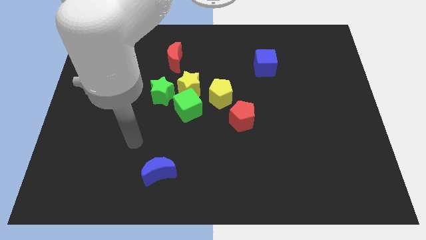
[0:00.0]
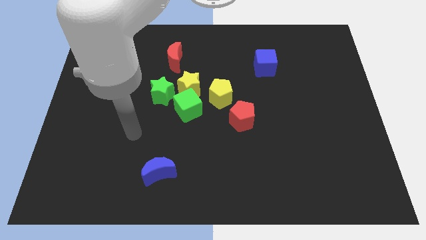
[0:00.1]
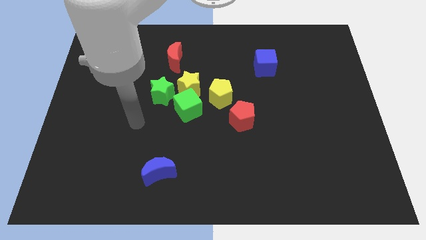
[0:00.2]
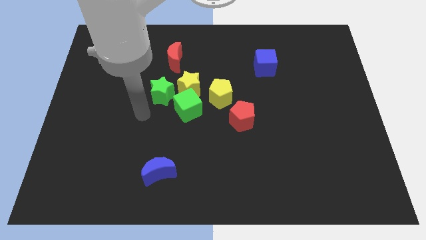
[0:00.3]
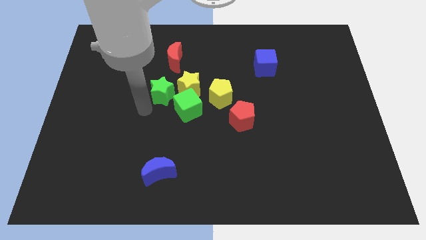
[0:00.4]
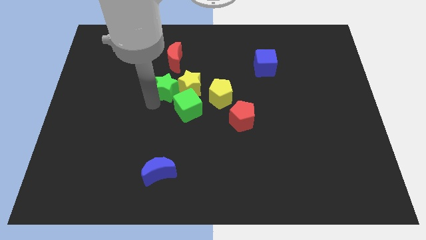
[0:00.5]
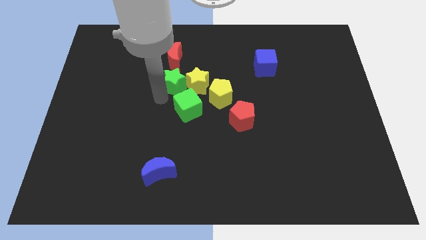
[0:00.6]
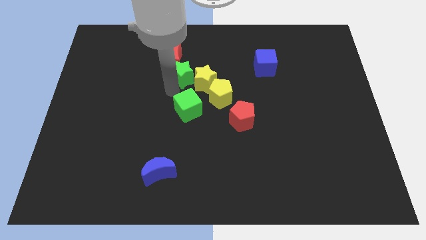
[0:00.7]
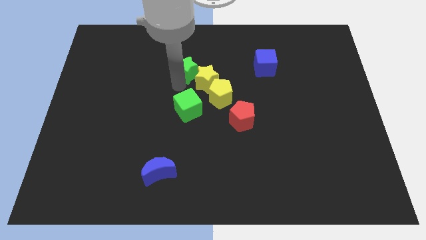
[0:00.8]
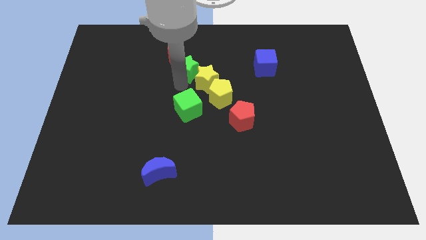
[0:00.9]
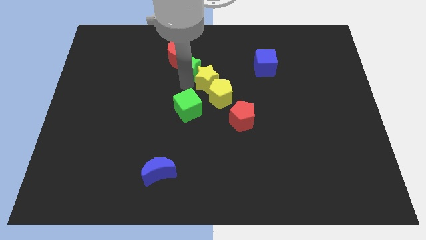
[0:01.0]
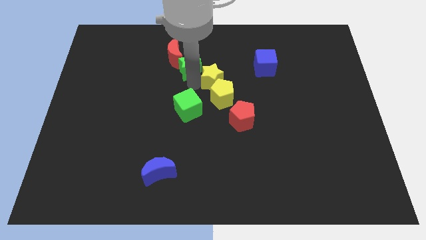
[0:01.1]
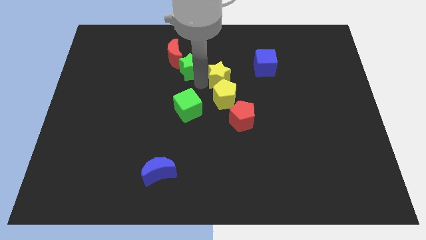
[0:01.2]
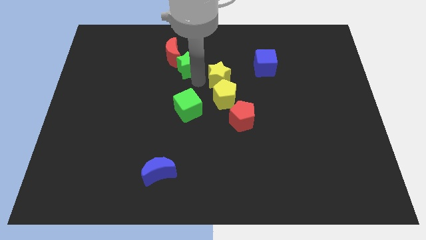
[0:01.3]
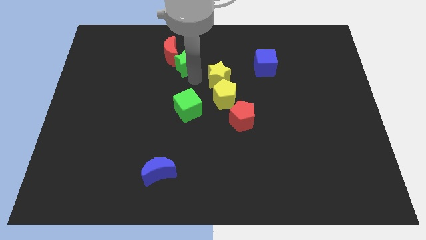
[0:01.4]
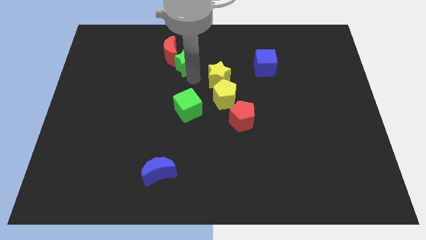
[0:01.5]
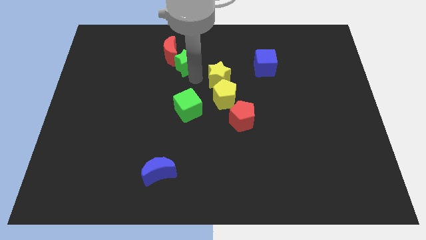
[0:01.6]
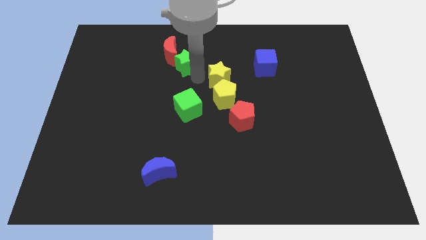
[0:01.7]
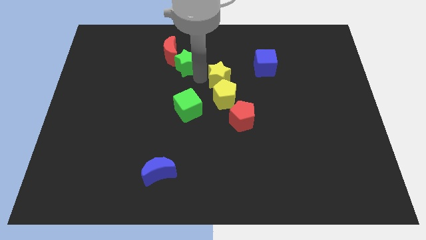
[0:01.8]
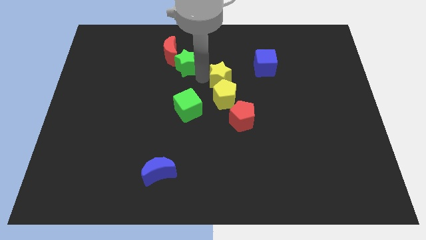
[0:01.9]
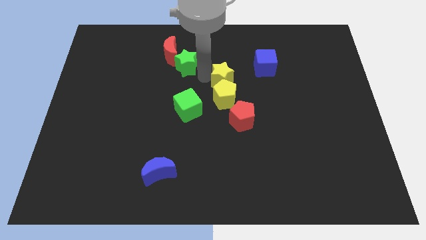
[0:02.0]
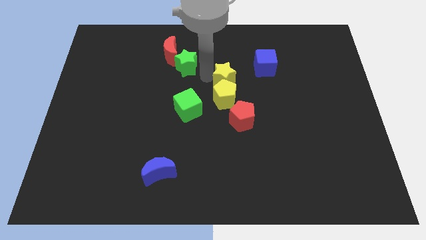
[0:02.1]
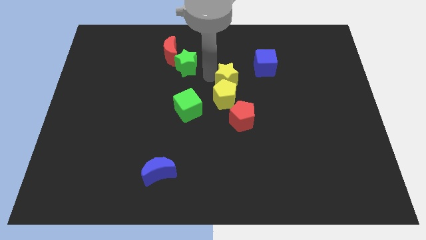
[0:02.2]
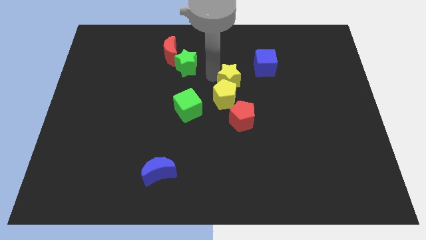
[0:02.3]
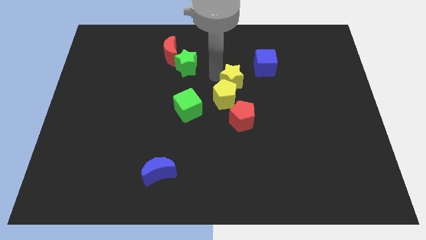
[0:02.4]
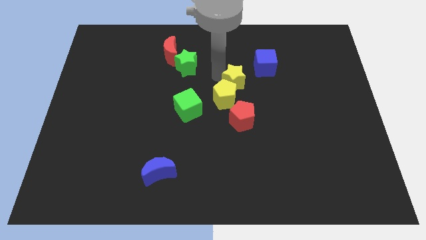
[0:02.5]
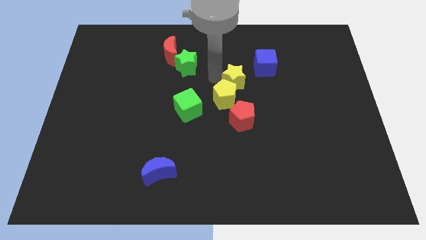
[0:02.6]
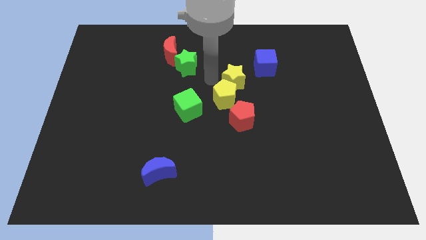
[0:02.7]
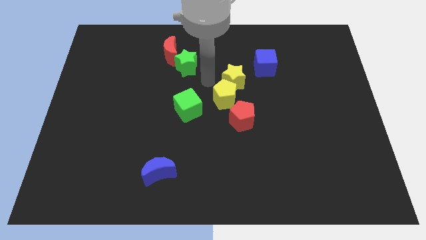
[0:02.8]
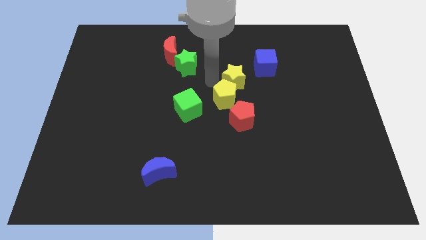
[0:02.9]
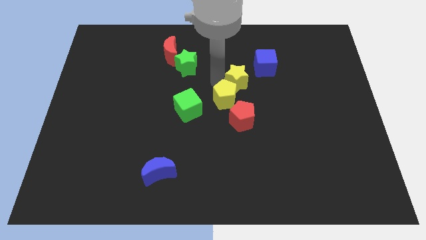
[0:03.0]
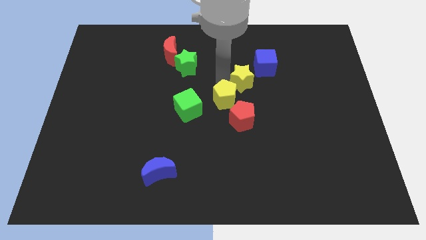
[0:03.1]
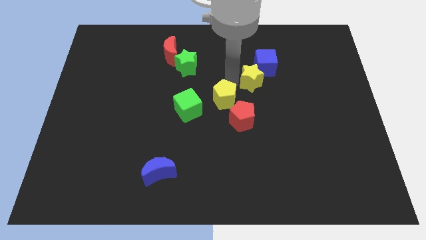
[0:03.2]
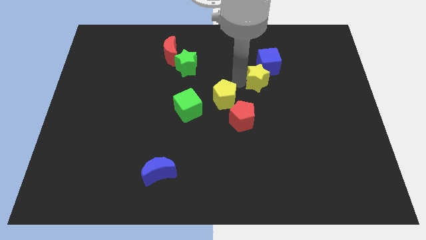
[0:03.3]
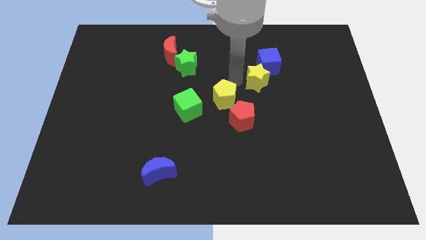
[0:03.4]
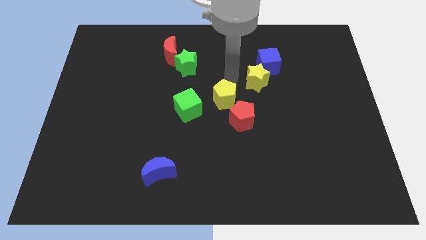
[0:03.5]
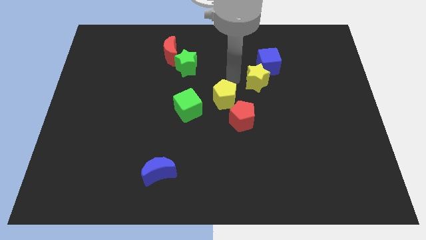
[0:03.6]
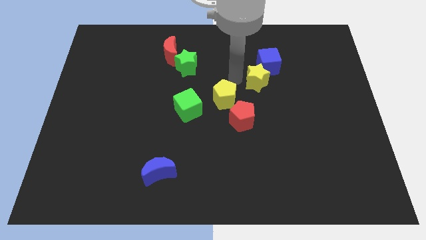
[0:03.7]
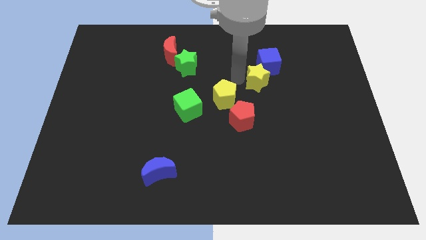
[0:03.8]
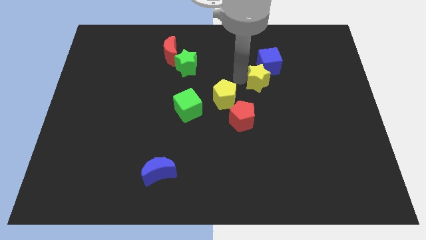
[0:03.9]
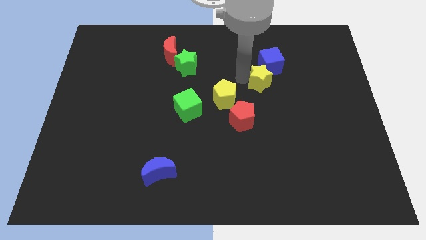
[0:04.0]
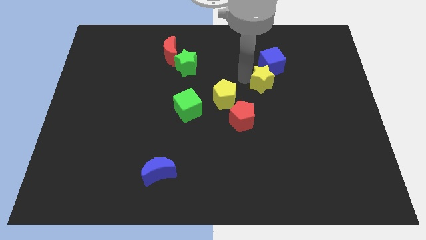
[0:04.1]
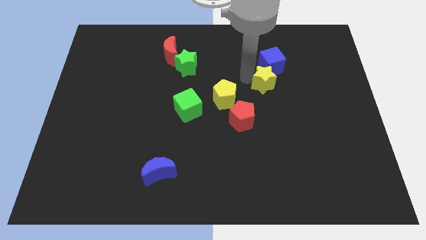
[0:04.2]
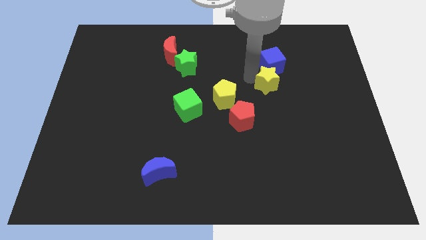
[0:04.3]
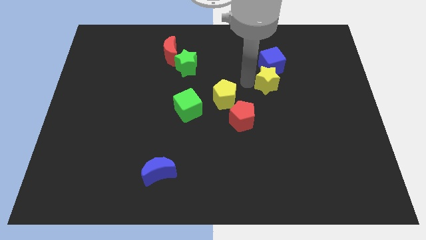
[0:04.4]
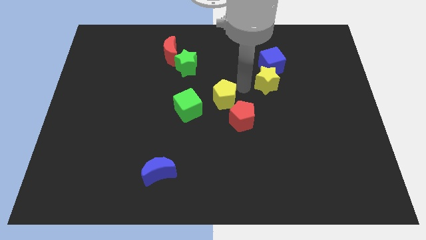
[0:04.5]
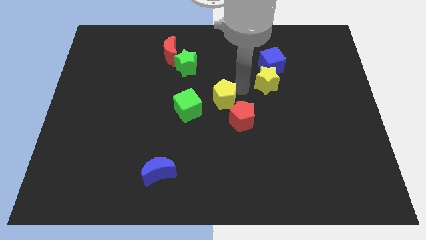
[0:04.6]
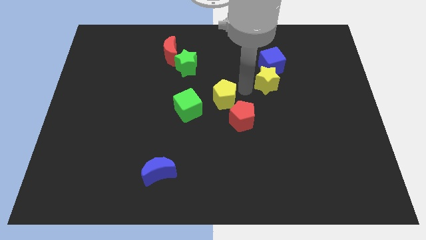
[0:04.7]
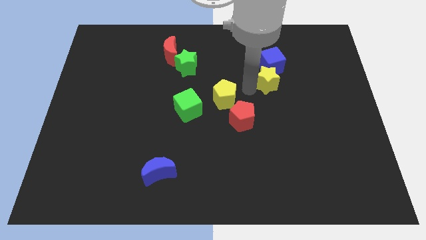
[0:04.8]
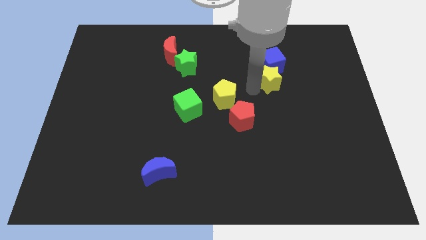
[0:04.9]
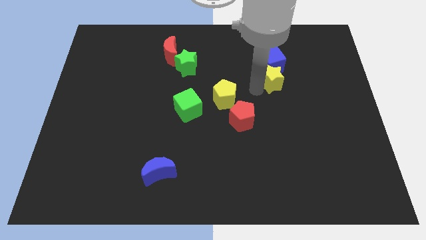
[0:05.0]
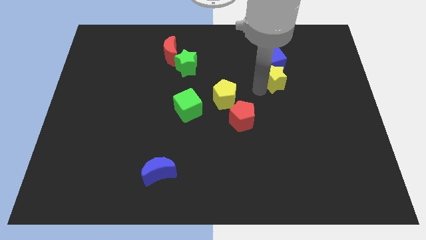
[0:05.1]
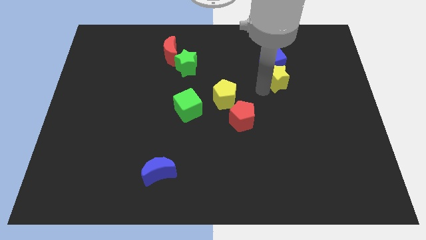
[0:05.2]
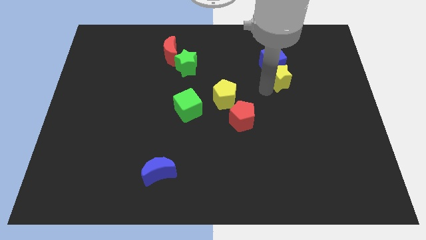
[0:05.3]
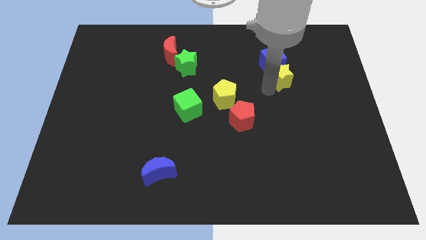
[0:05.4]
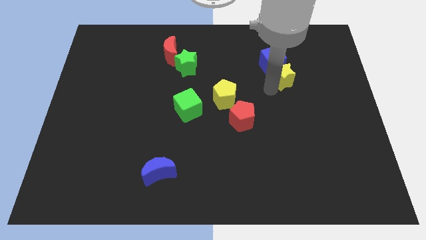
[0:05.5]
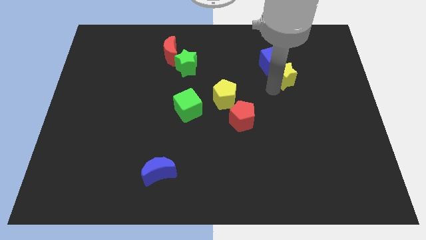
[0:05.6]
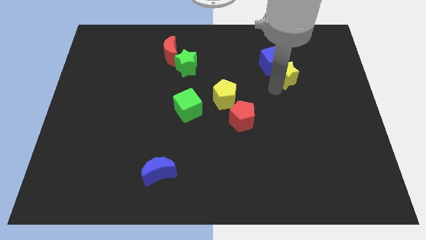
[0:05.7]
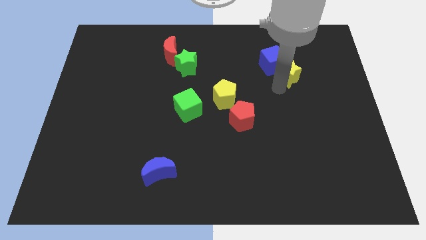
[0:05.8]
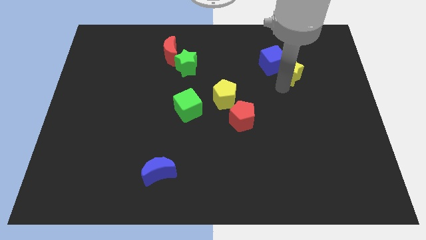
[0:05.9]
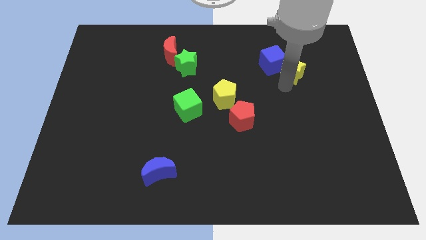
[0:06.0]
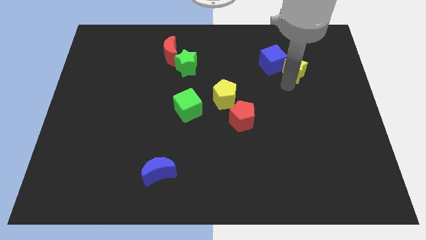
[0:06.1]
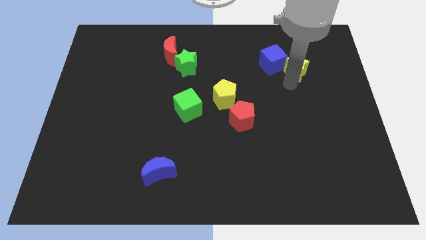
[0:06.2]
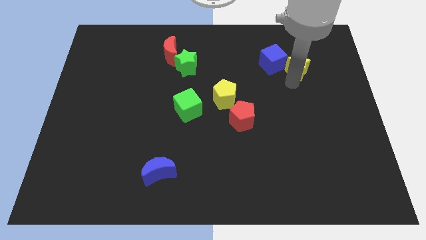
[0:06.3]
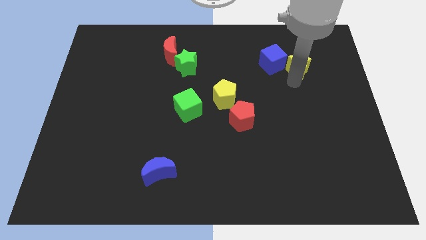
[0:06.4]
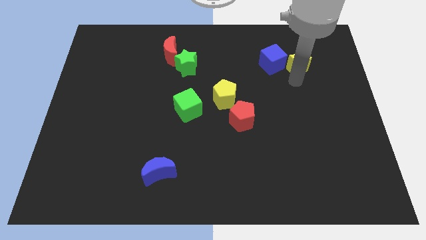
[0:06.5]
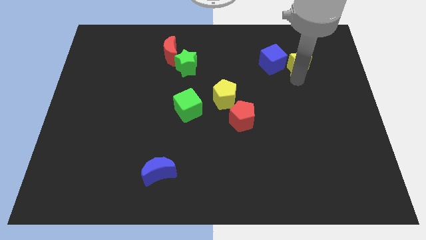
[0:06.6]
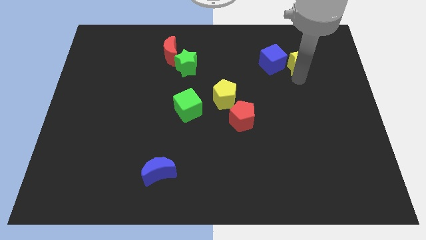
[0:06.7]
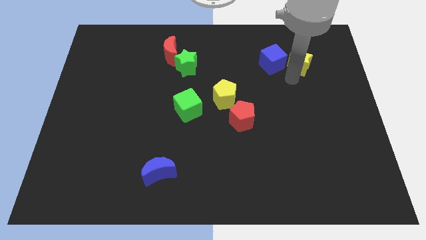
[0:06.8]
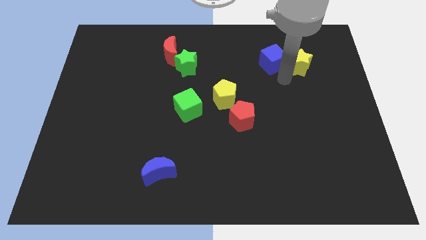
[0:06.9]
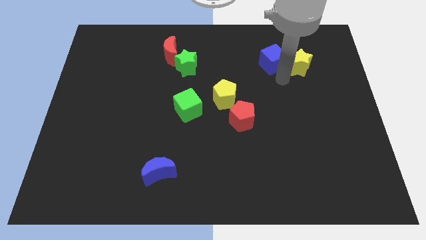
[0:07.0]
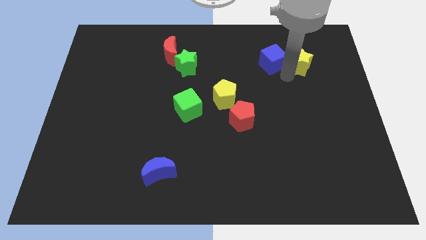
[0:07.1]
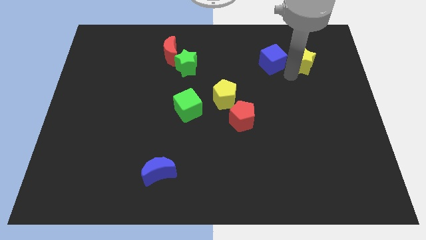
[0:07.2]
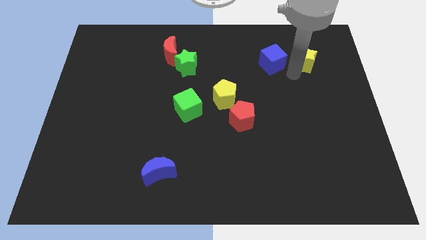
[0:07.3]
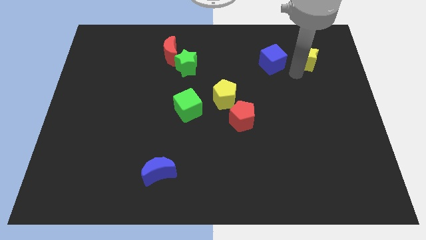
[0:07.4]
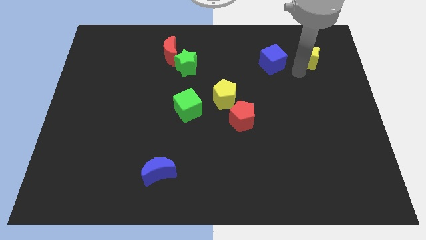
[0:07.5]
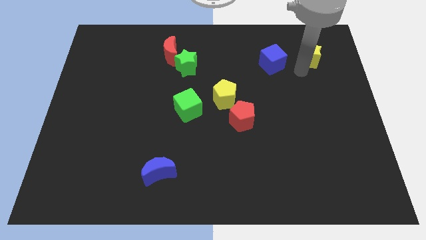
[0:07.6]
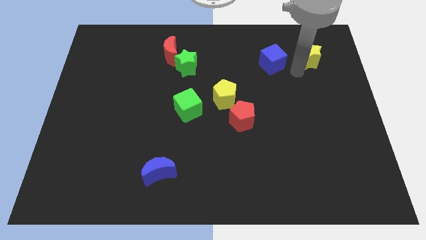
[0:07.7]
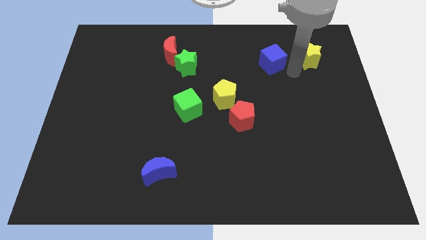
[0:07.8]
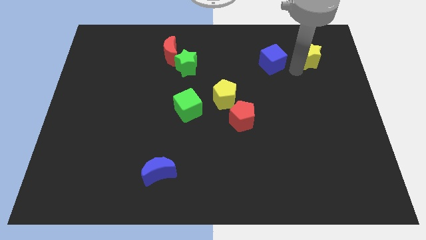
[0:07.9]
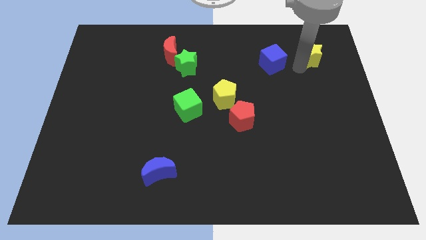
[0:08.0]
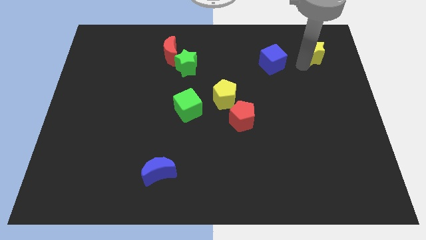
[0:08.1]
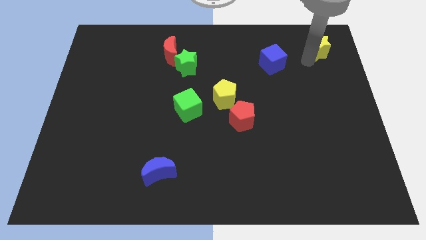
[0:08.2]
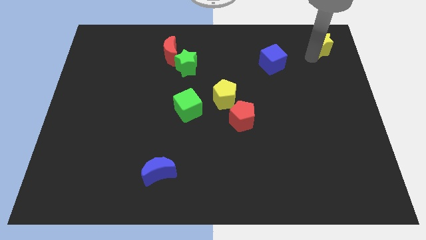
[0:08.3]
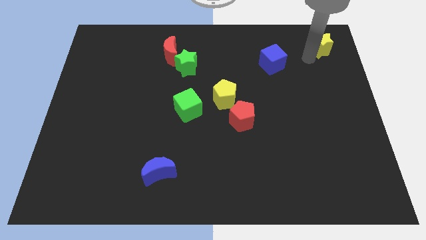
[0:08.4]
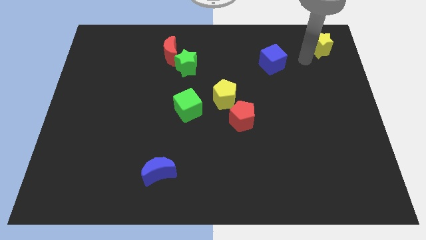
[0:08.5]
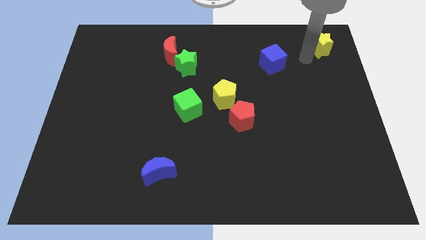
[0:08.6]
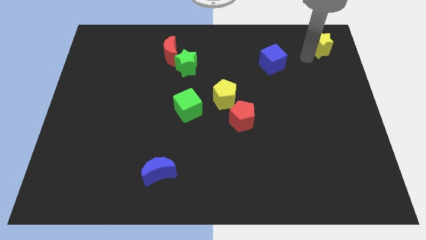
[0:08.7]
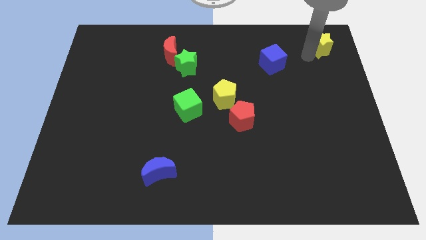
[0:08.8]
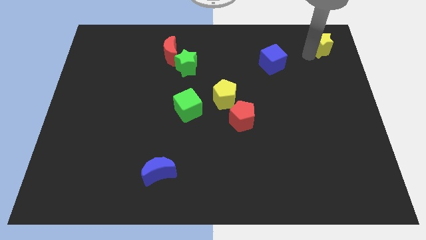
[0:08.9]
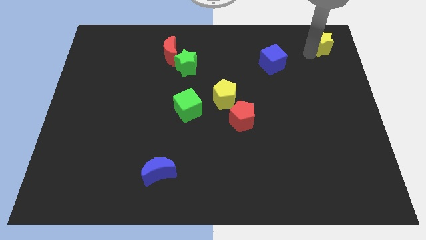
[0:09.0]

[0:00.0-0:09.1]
push the yellow star to the top right corner
